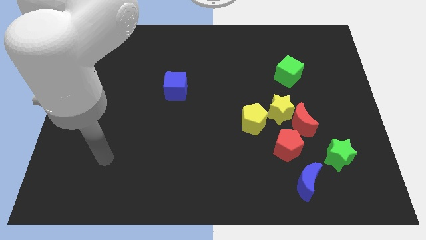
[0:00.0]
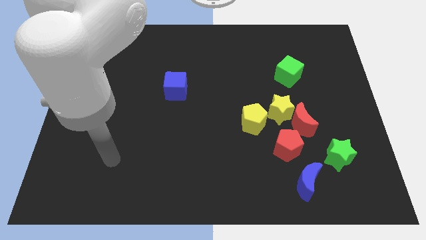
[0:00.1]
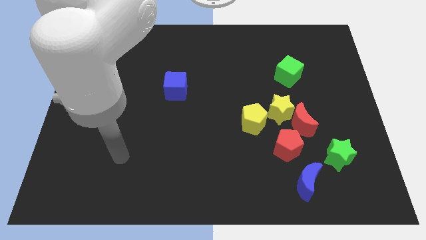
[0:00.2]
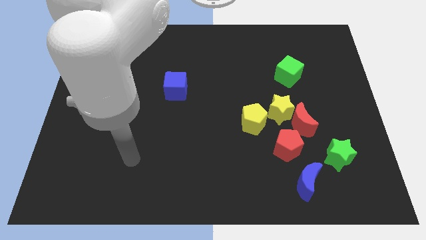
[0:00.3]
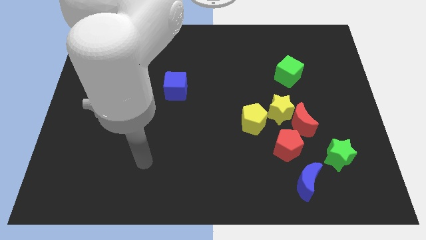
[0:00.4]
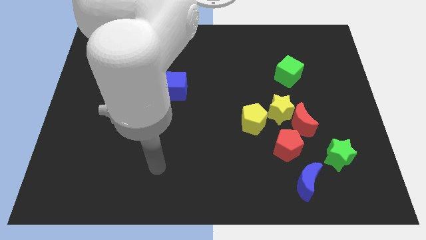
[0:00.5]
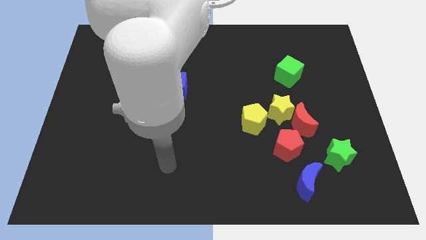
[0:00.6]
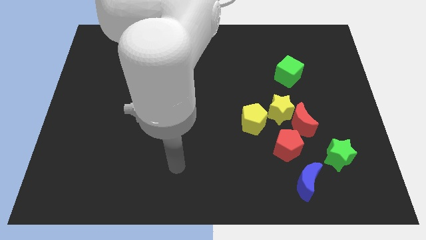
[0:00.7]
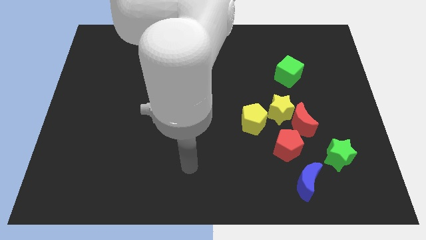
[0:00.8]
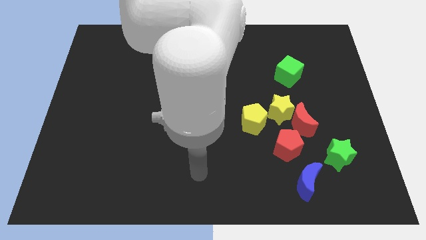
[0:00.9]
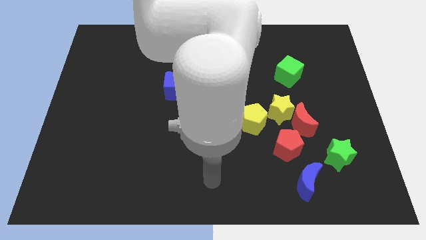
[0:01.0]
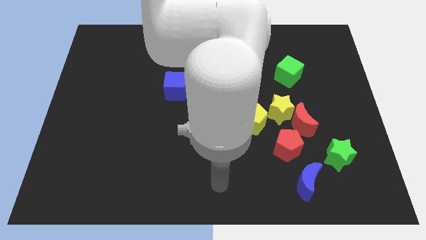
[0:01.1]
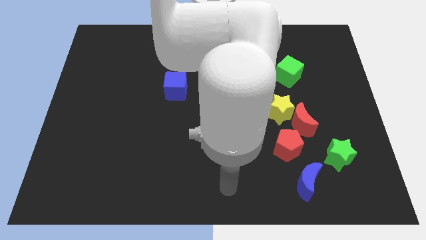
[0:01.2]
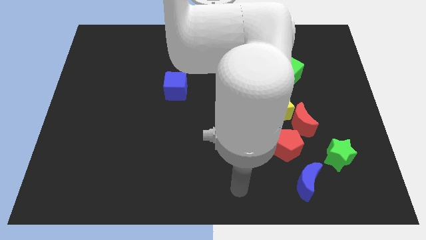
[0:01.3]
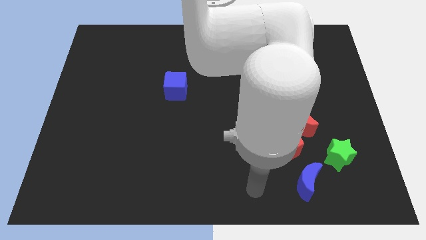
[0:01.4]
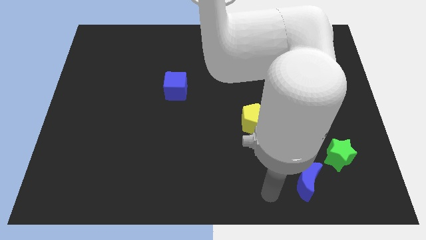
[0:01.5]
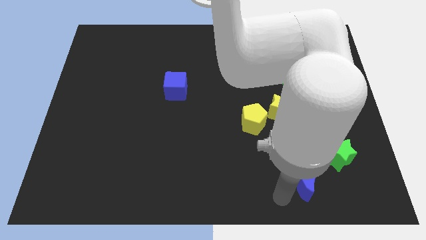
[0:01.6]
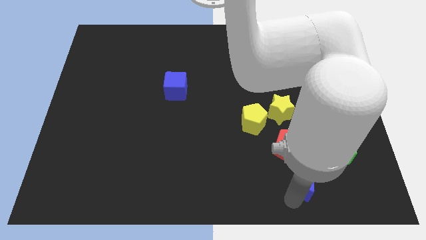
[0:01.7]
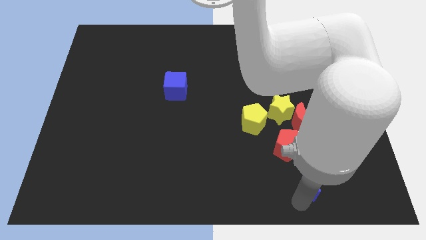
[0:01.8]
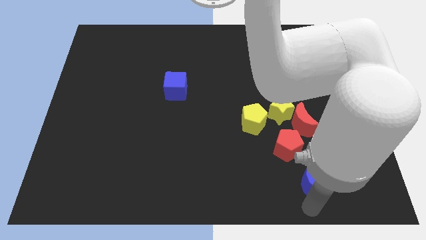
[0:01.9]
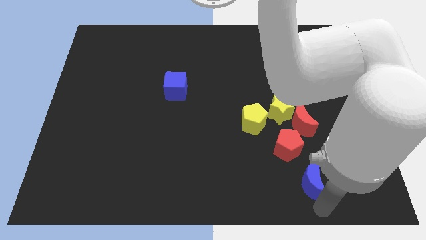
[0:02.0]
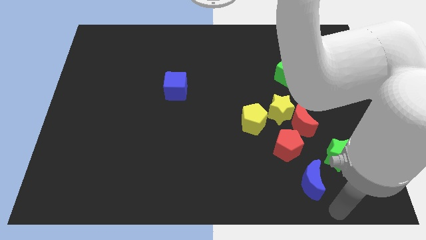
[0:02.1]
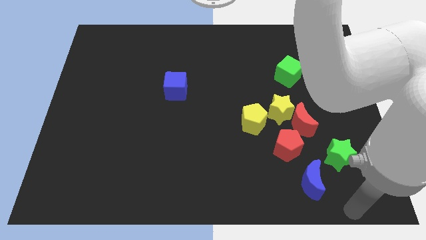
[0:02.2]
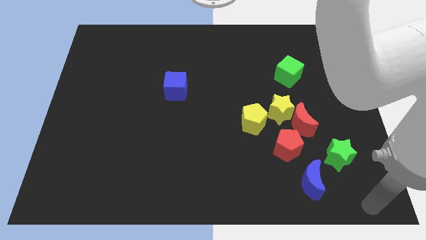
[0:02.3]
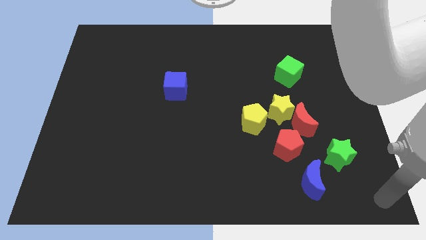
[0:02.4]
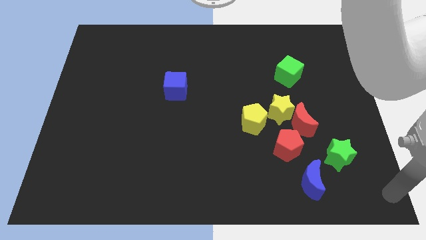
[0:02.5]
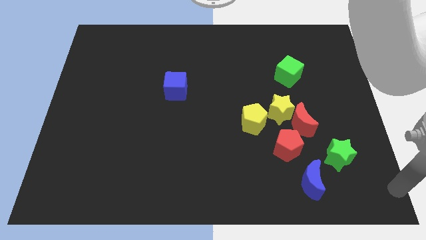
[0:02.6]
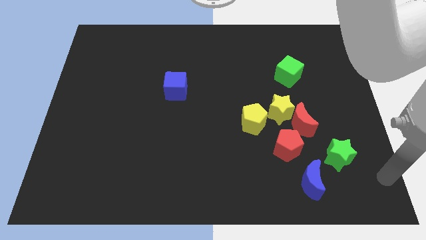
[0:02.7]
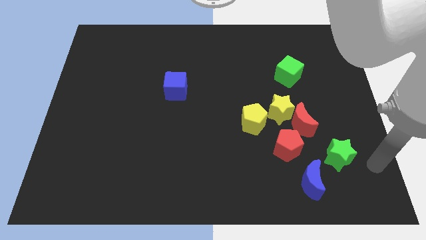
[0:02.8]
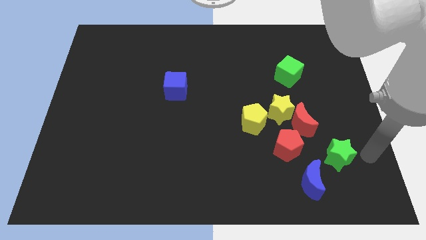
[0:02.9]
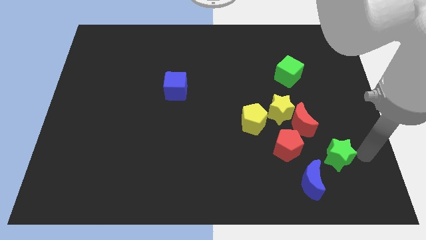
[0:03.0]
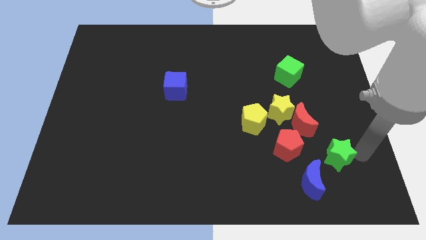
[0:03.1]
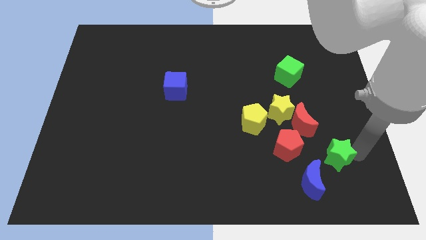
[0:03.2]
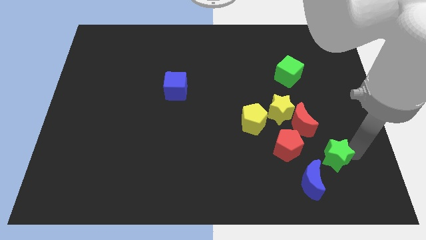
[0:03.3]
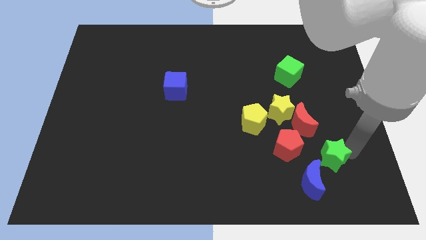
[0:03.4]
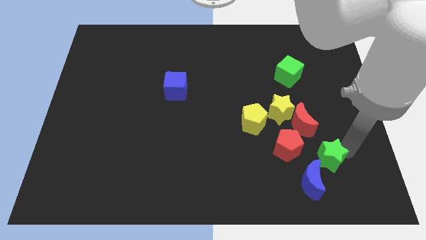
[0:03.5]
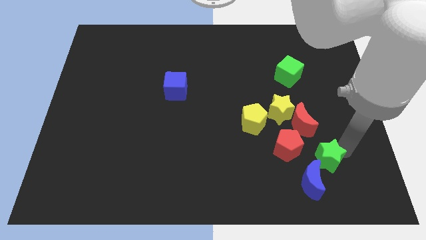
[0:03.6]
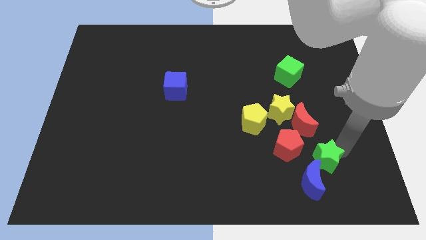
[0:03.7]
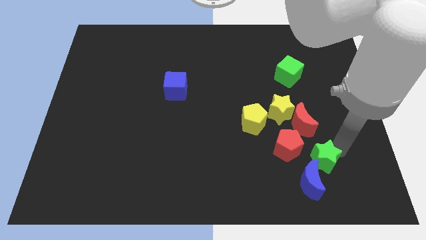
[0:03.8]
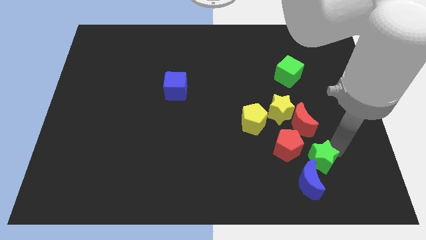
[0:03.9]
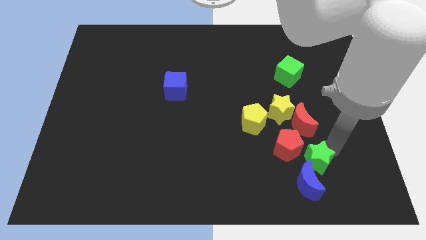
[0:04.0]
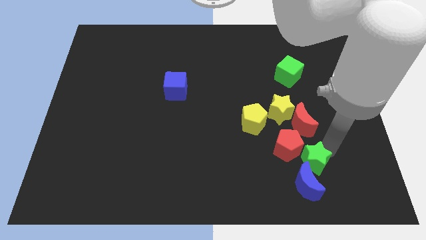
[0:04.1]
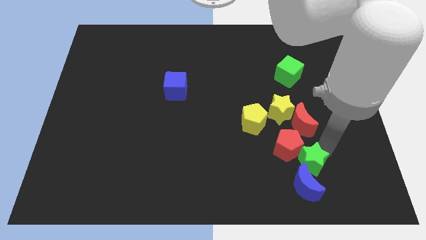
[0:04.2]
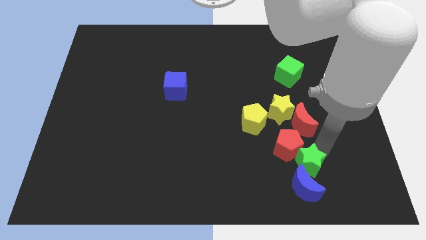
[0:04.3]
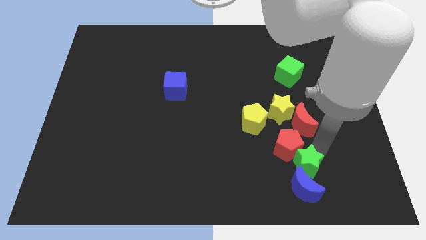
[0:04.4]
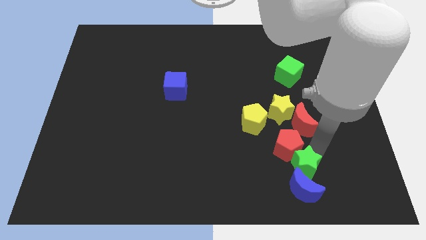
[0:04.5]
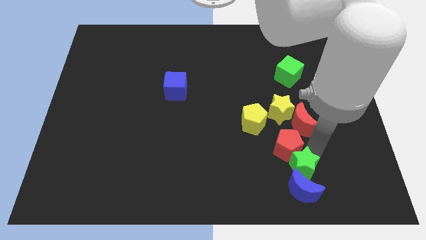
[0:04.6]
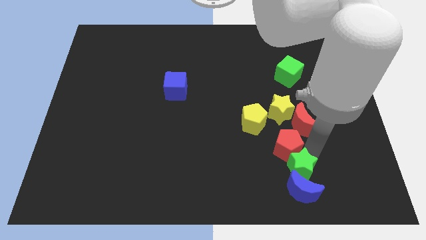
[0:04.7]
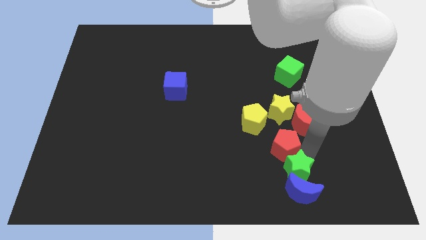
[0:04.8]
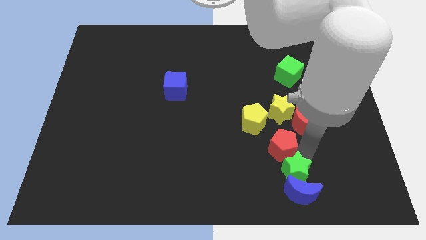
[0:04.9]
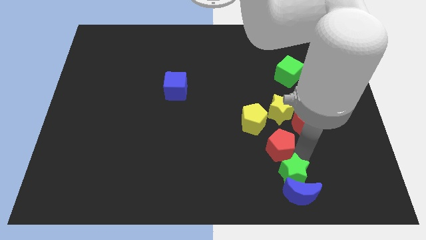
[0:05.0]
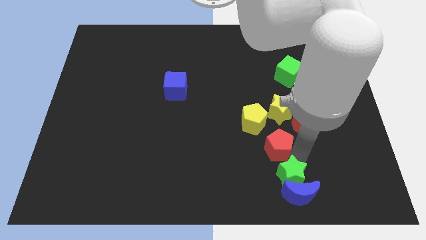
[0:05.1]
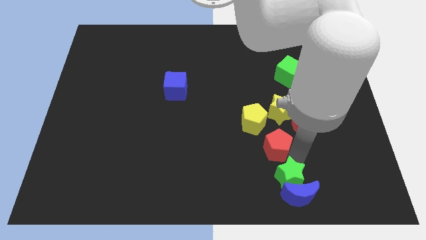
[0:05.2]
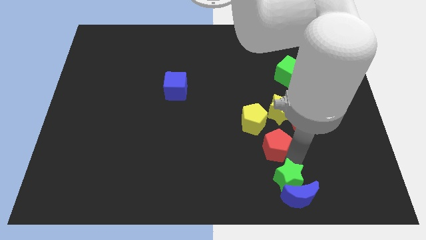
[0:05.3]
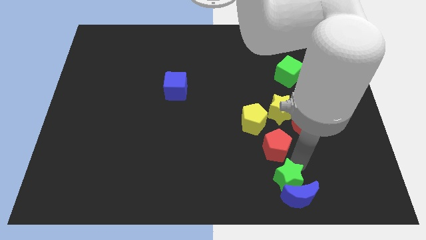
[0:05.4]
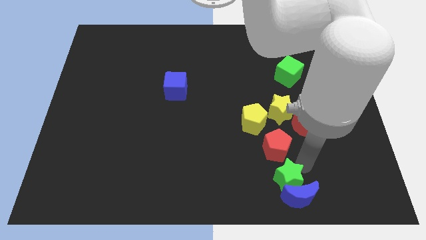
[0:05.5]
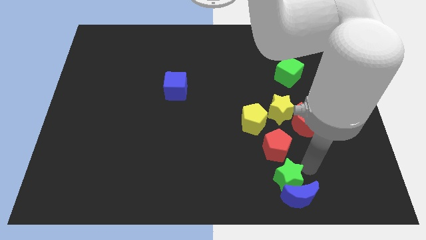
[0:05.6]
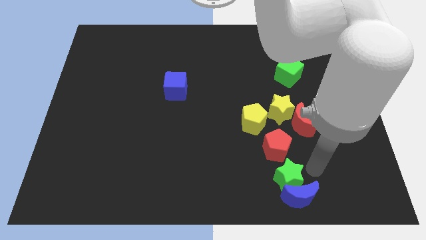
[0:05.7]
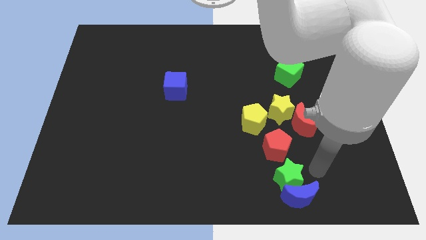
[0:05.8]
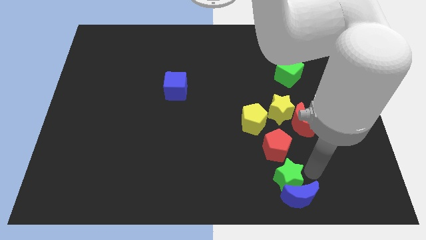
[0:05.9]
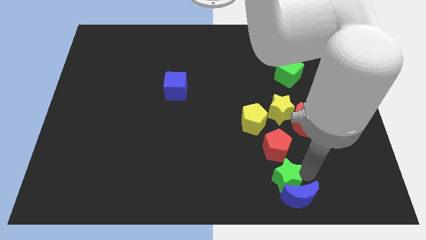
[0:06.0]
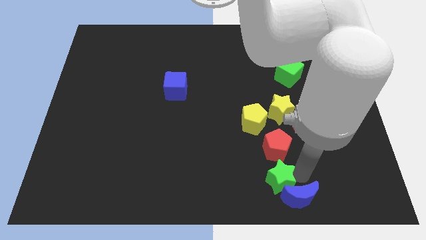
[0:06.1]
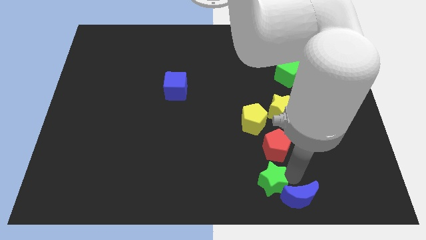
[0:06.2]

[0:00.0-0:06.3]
put the green star to the bottom side
